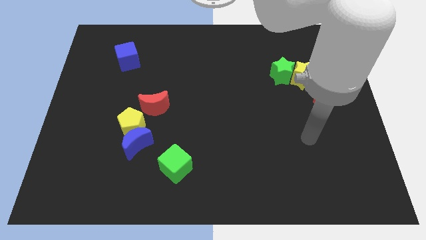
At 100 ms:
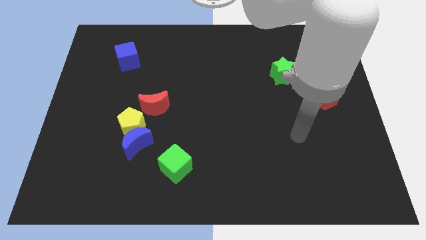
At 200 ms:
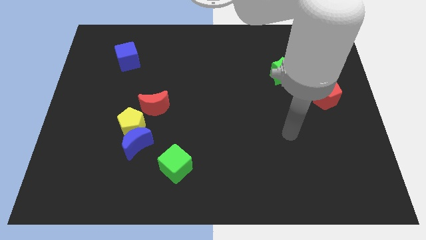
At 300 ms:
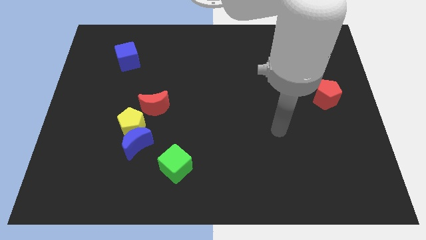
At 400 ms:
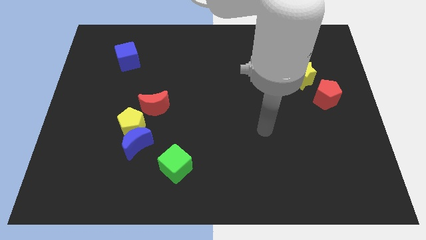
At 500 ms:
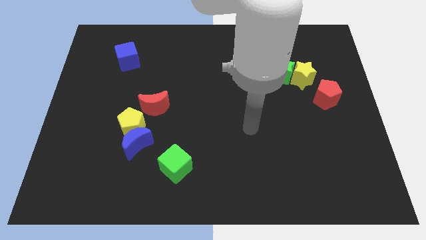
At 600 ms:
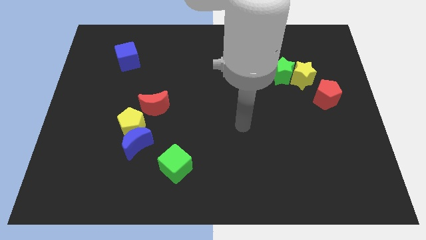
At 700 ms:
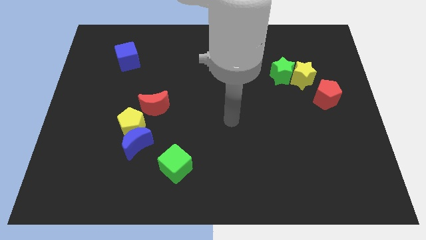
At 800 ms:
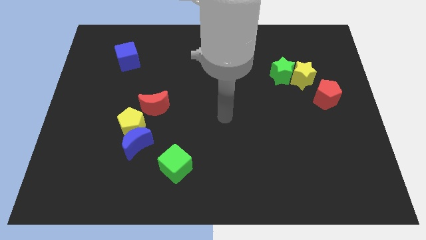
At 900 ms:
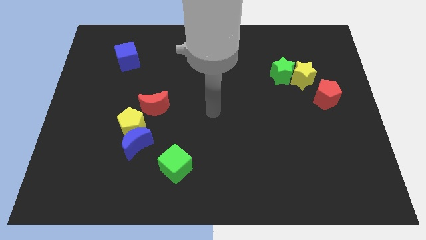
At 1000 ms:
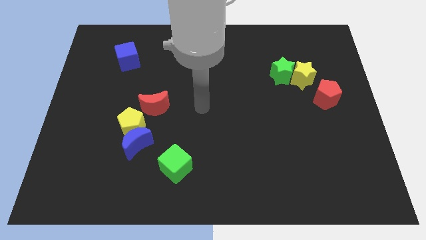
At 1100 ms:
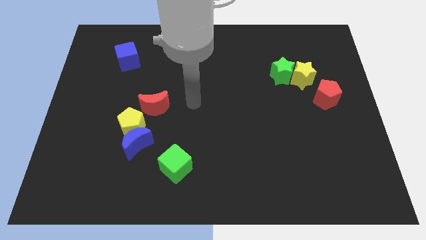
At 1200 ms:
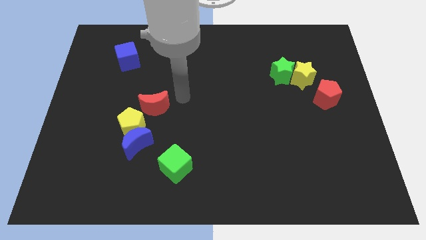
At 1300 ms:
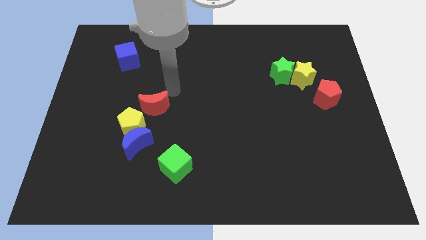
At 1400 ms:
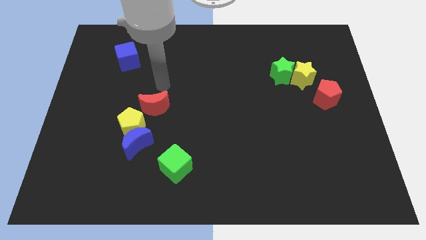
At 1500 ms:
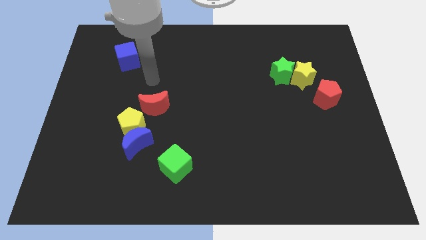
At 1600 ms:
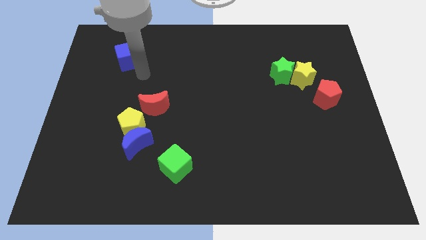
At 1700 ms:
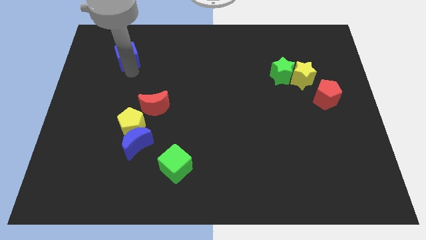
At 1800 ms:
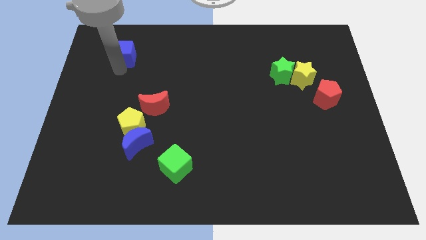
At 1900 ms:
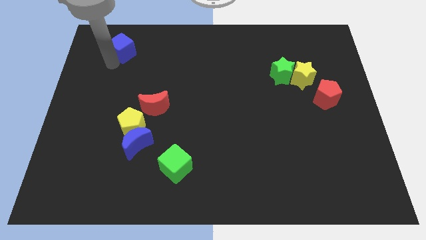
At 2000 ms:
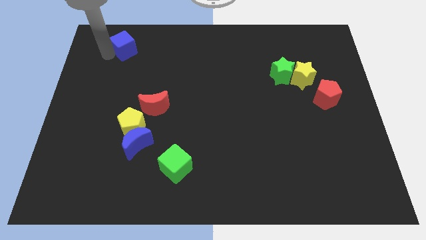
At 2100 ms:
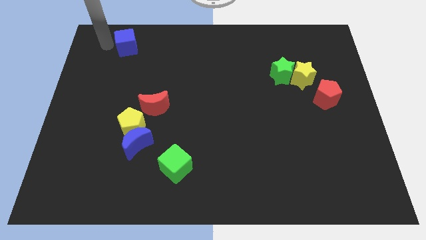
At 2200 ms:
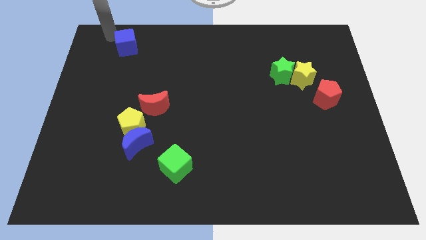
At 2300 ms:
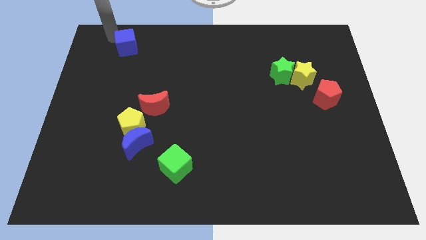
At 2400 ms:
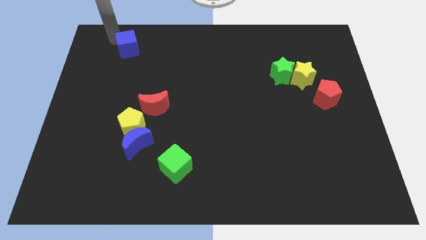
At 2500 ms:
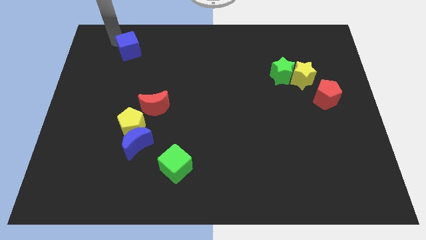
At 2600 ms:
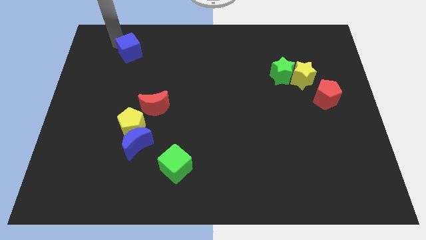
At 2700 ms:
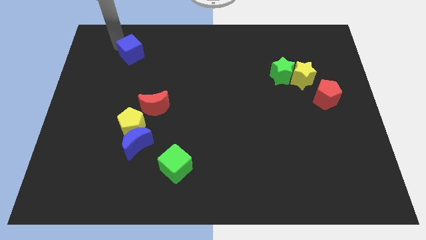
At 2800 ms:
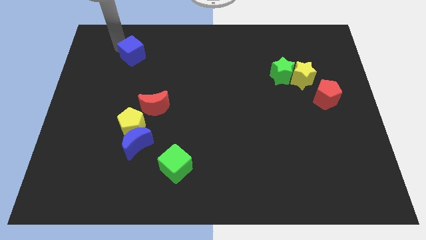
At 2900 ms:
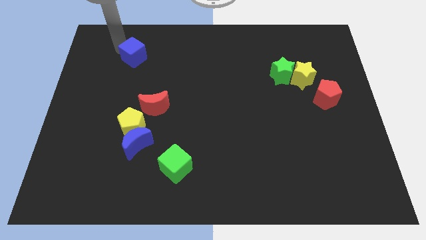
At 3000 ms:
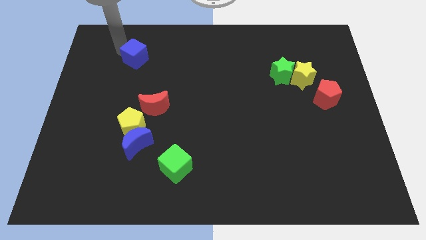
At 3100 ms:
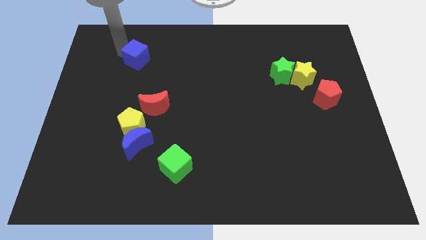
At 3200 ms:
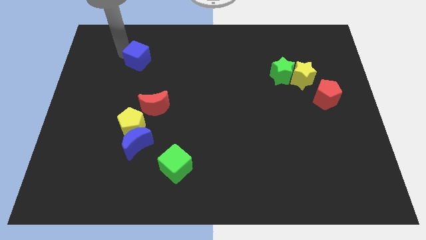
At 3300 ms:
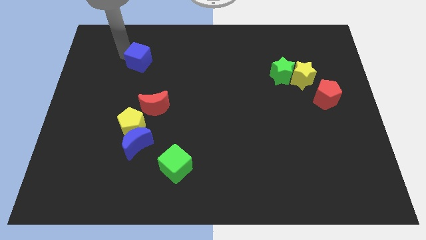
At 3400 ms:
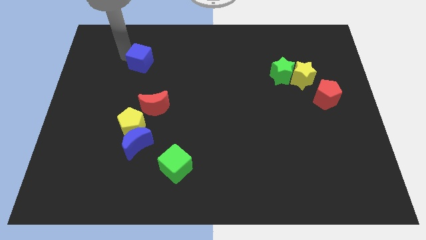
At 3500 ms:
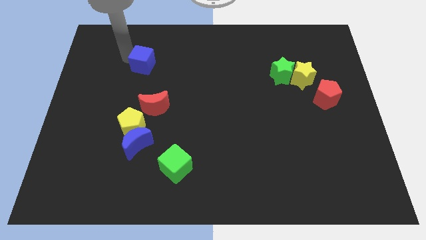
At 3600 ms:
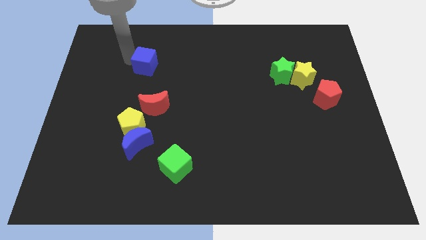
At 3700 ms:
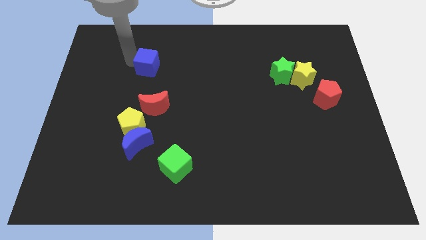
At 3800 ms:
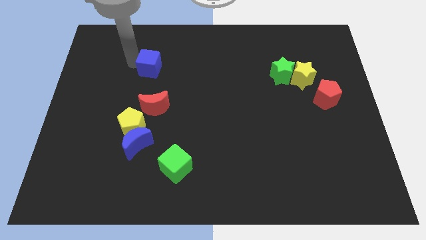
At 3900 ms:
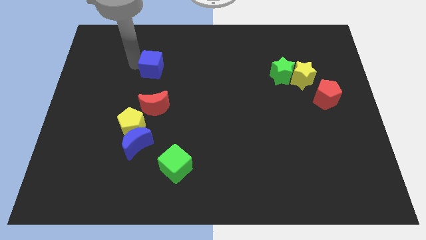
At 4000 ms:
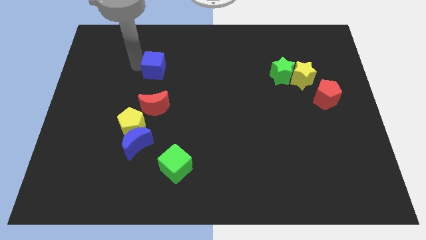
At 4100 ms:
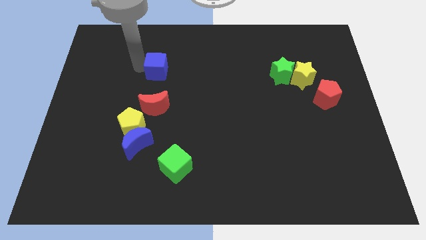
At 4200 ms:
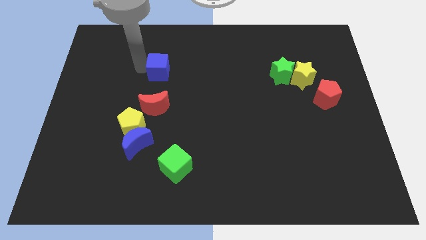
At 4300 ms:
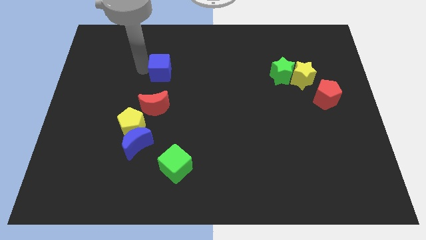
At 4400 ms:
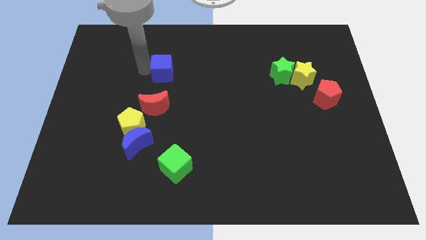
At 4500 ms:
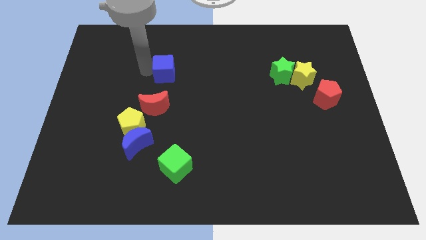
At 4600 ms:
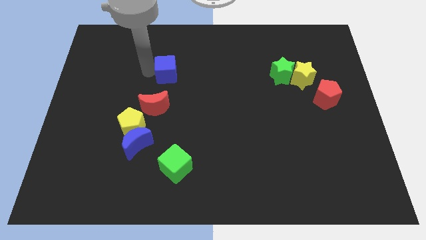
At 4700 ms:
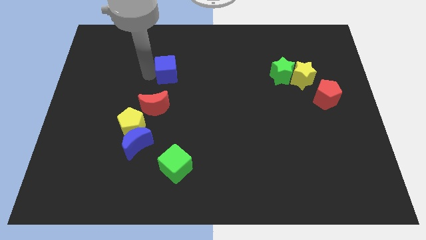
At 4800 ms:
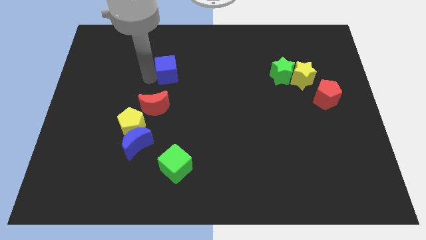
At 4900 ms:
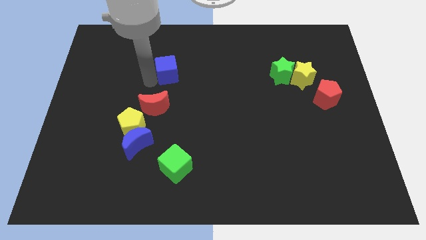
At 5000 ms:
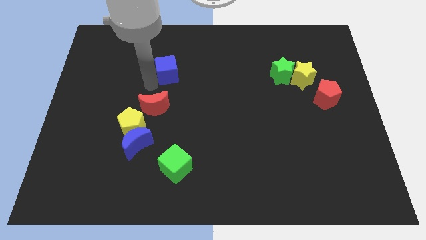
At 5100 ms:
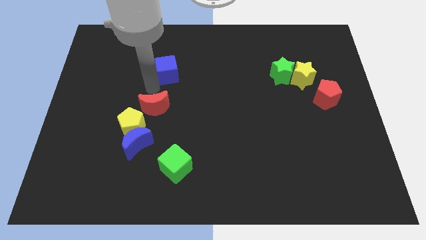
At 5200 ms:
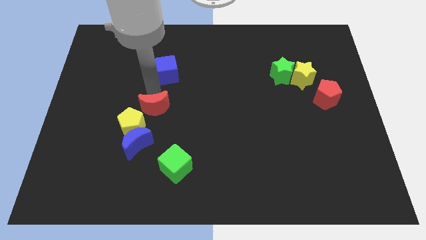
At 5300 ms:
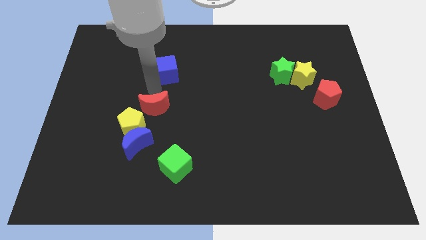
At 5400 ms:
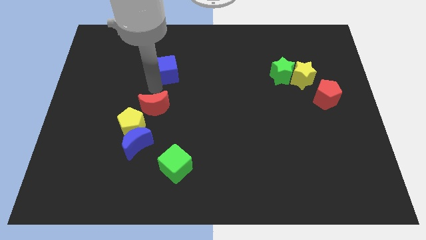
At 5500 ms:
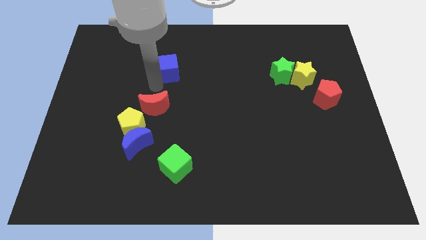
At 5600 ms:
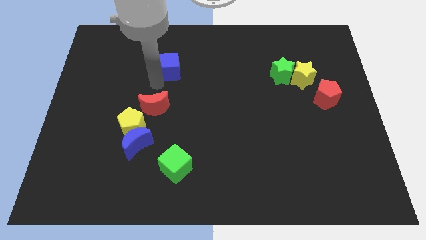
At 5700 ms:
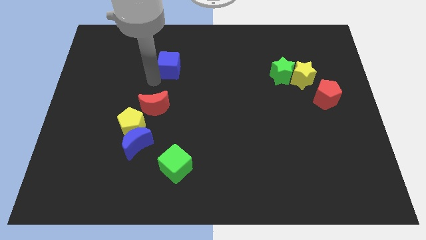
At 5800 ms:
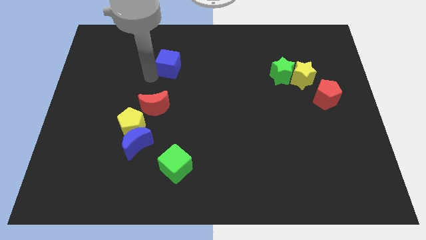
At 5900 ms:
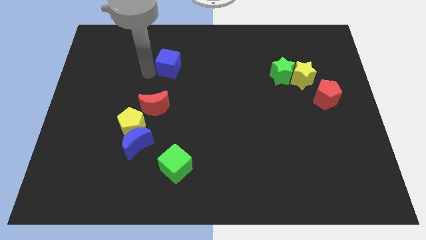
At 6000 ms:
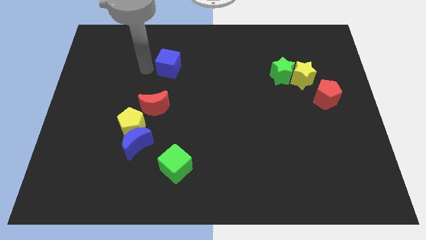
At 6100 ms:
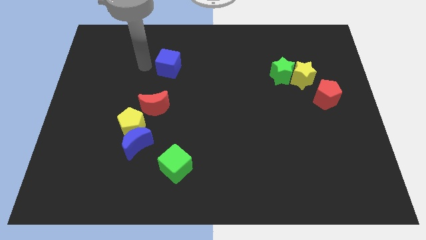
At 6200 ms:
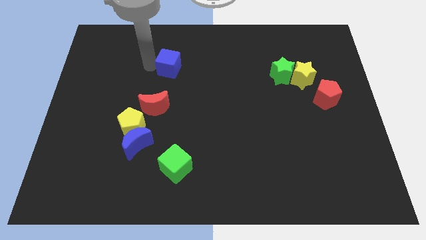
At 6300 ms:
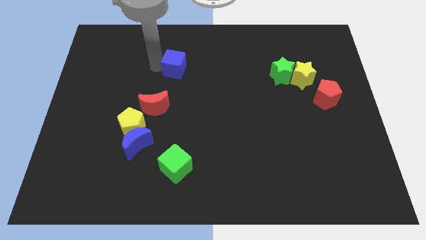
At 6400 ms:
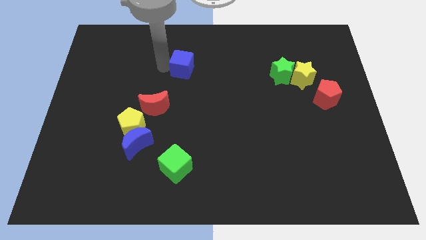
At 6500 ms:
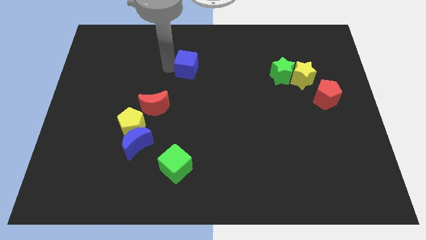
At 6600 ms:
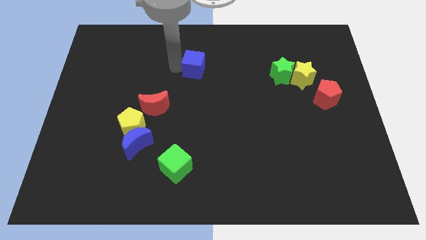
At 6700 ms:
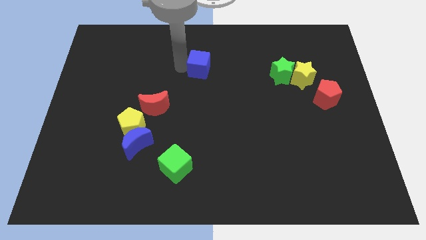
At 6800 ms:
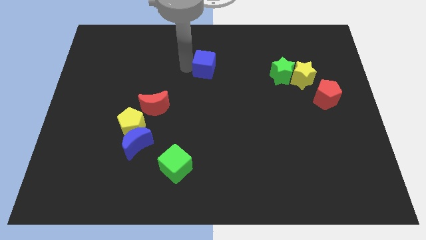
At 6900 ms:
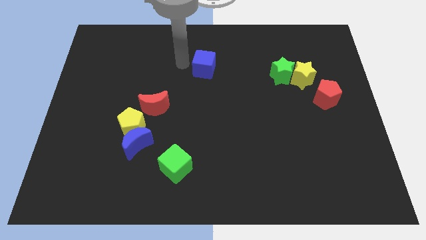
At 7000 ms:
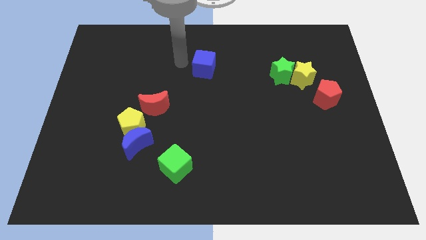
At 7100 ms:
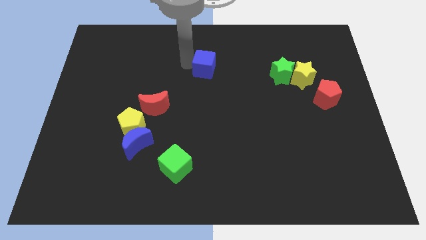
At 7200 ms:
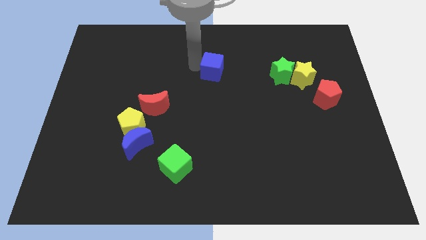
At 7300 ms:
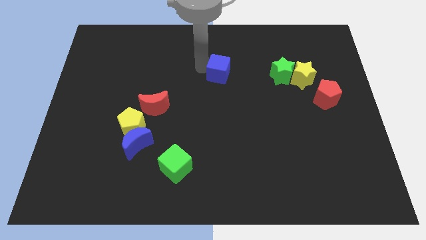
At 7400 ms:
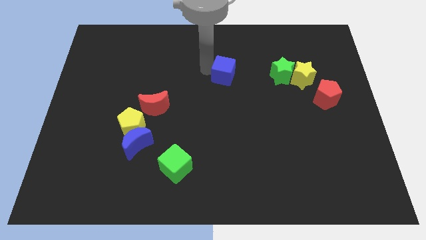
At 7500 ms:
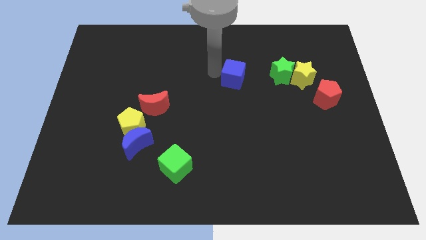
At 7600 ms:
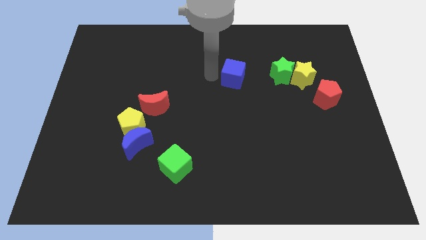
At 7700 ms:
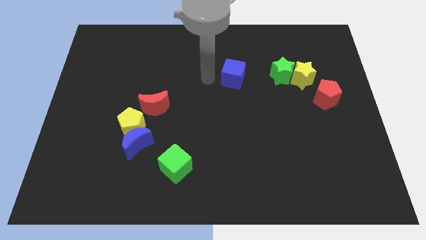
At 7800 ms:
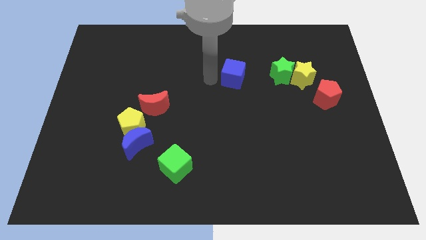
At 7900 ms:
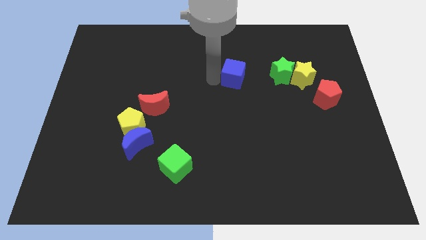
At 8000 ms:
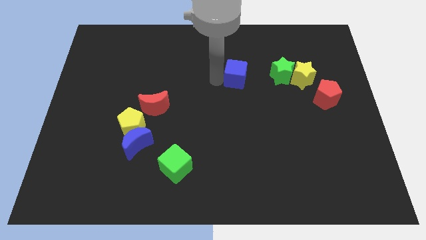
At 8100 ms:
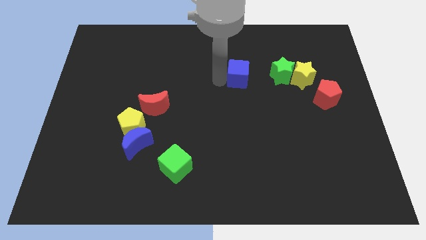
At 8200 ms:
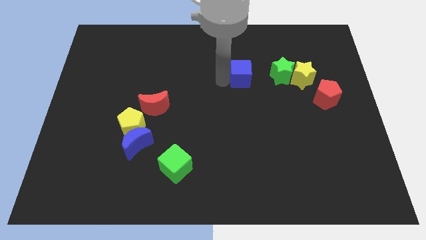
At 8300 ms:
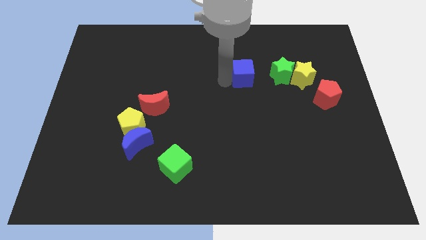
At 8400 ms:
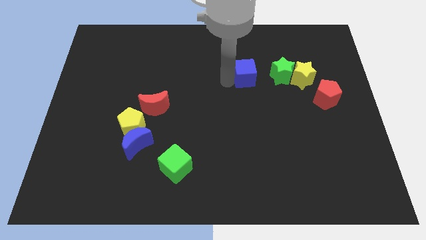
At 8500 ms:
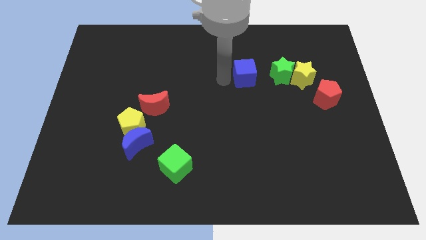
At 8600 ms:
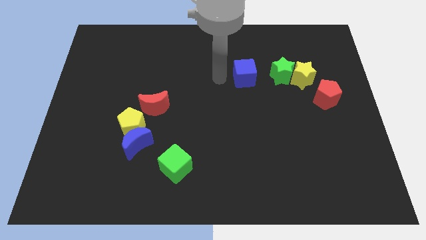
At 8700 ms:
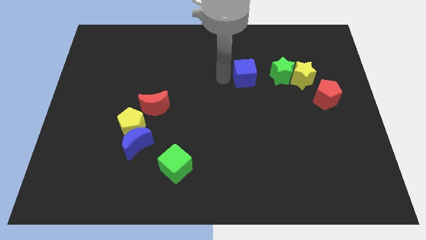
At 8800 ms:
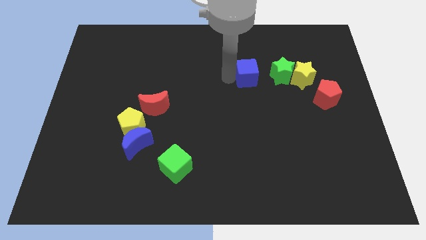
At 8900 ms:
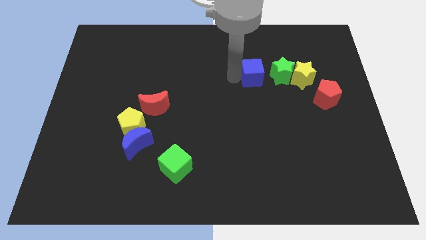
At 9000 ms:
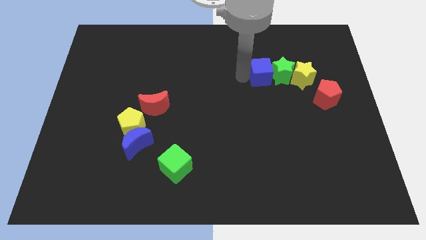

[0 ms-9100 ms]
push the blue cube to the green star
